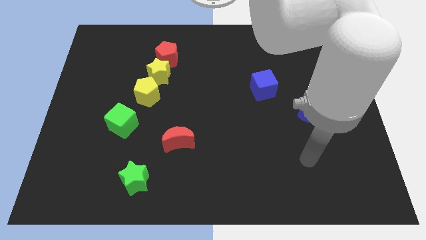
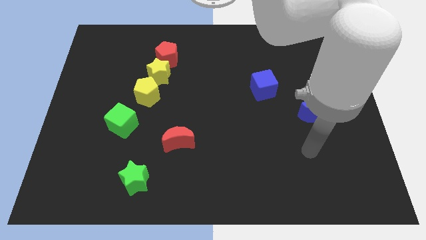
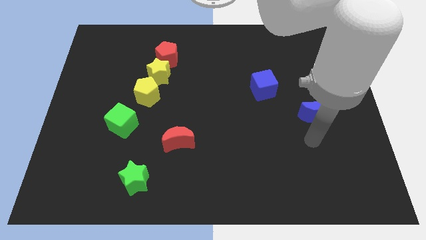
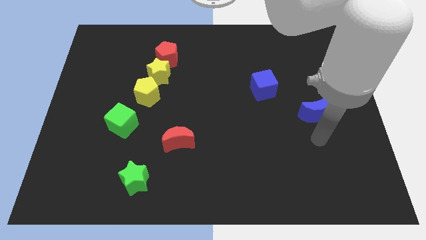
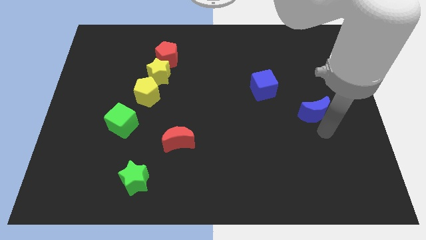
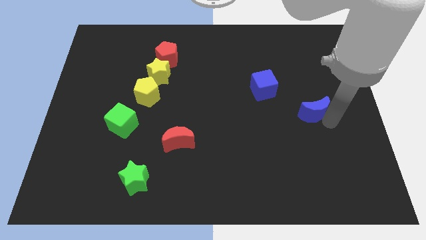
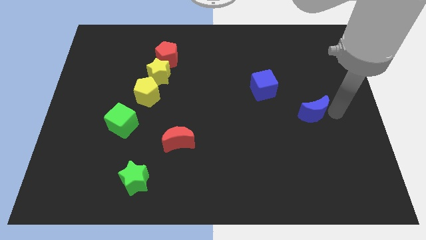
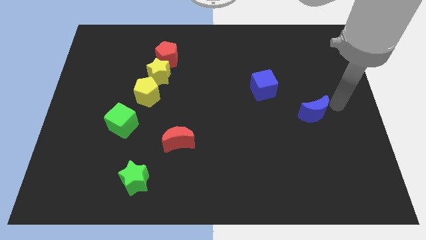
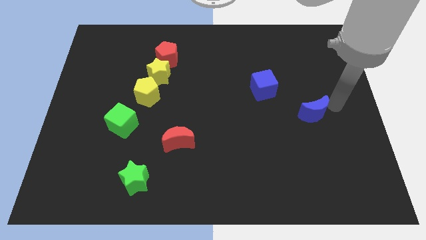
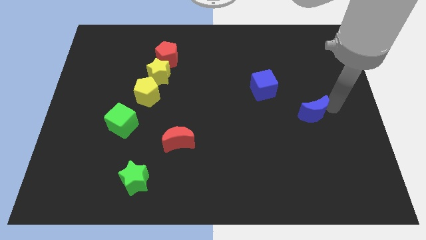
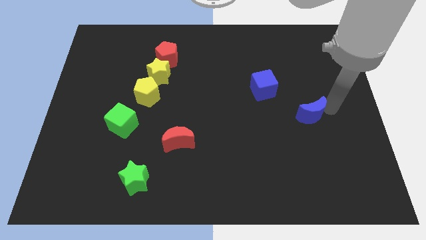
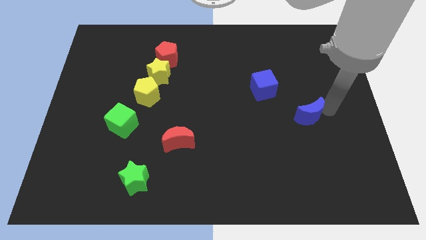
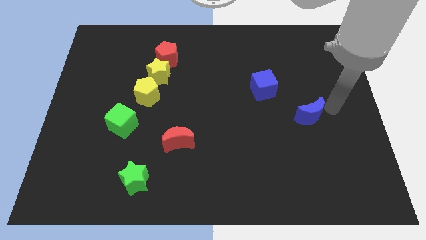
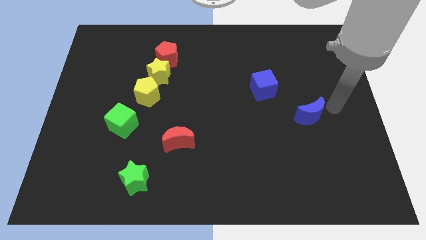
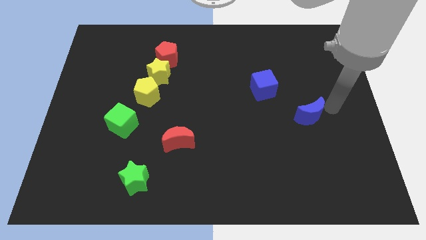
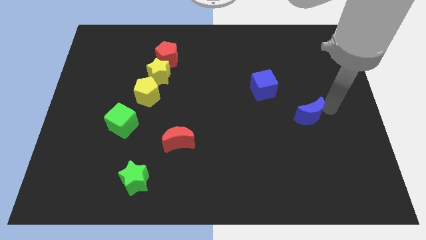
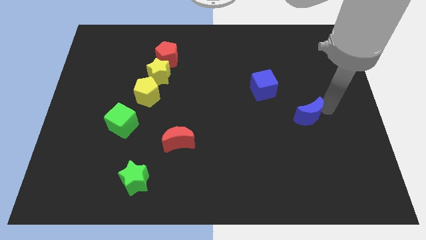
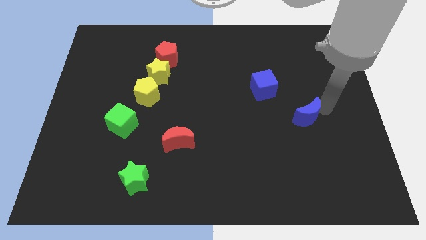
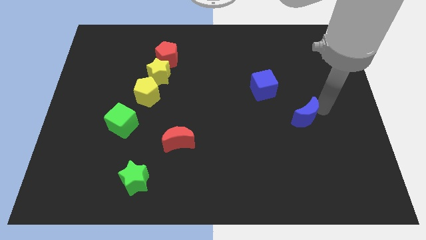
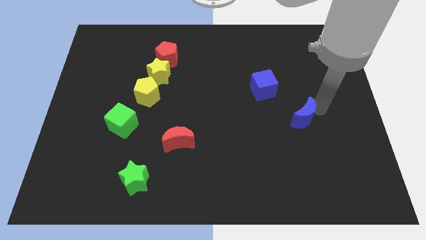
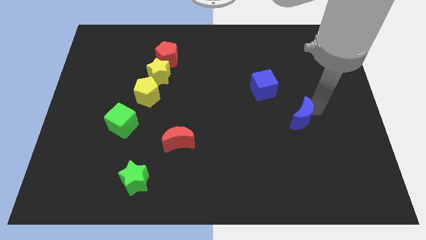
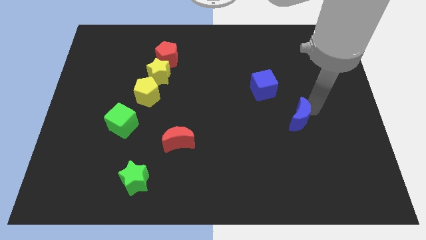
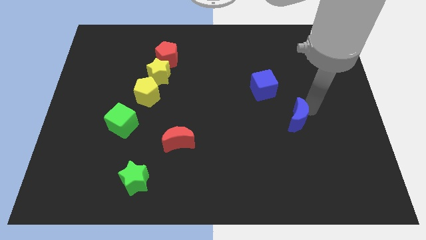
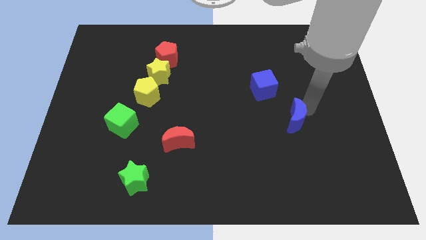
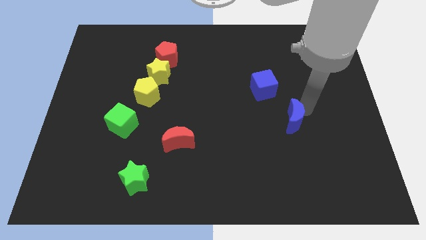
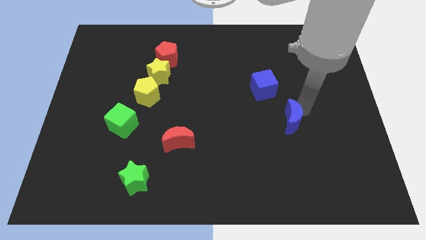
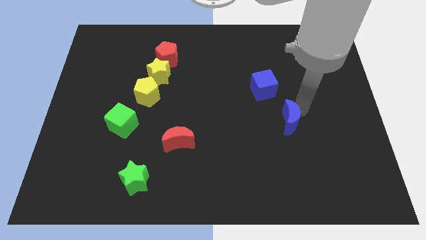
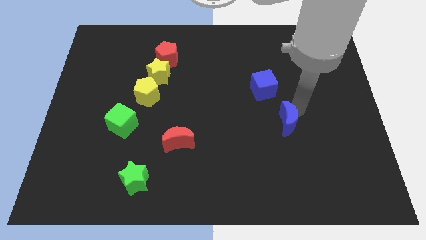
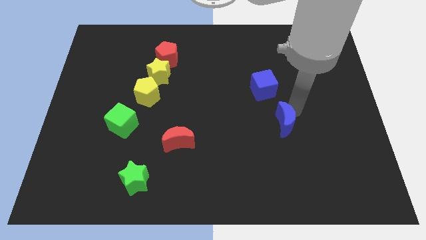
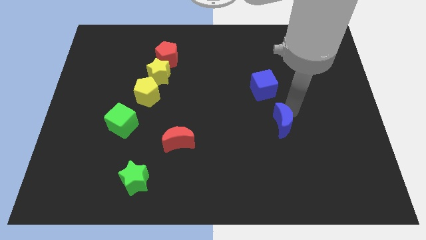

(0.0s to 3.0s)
move the blue moon down and to the left somewhat

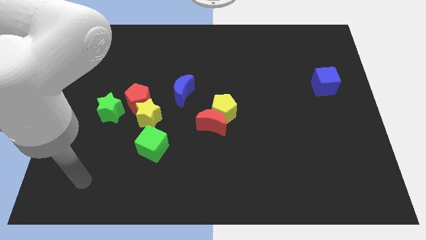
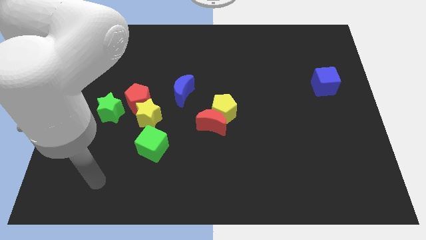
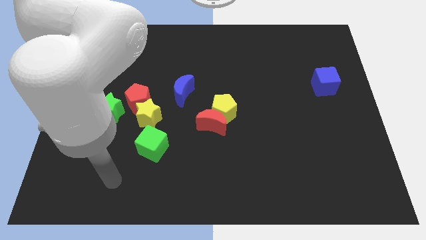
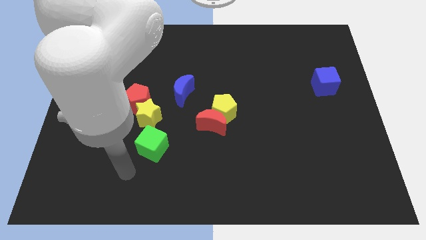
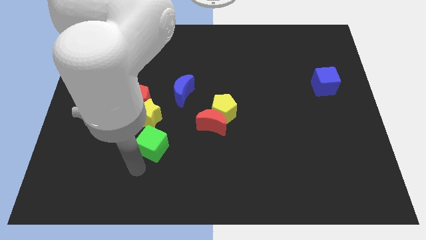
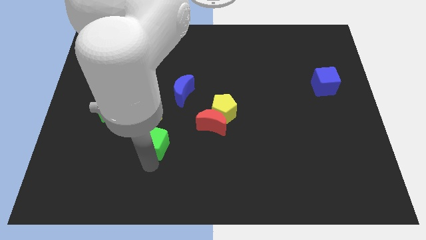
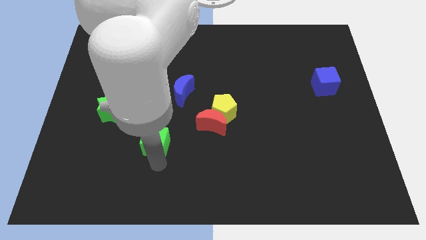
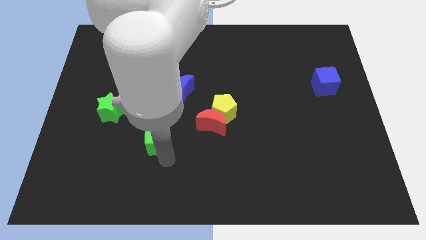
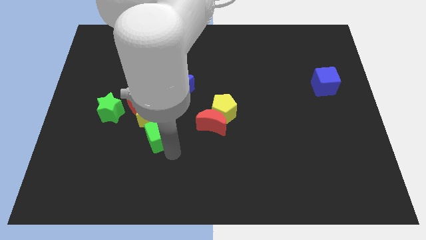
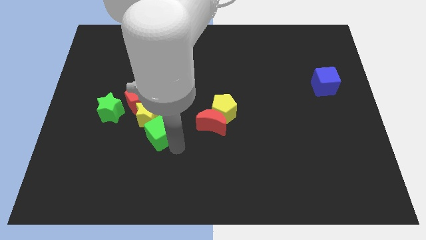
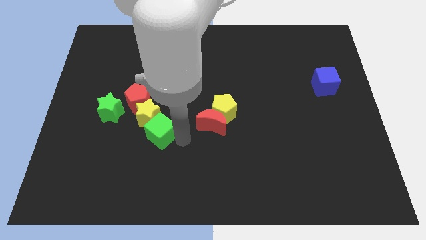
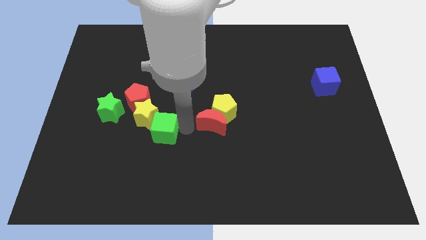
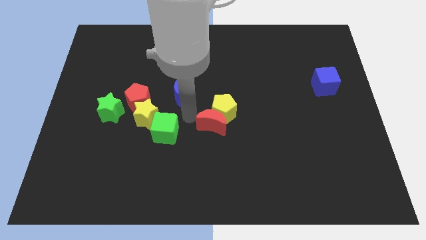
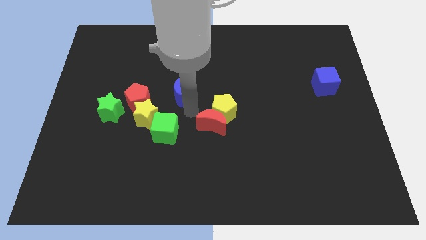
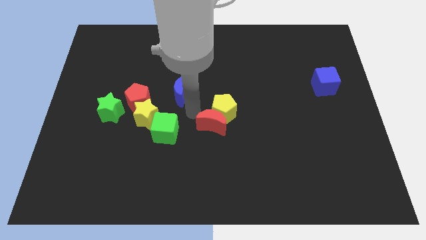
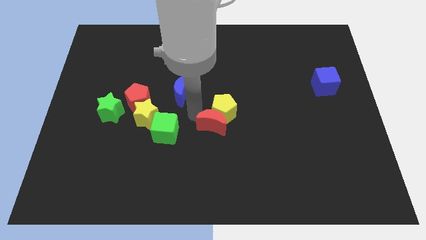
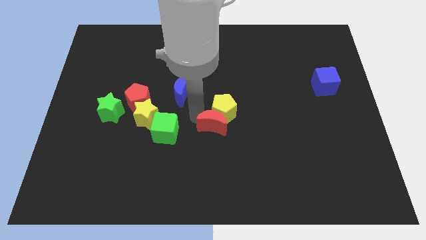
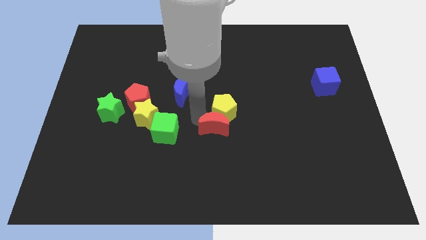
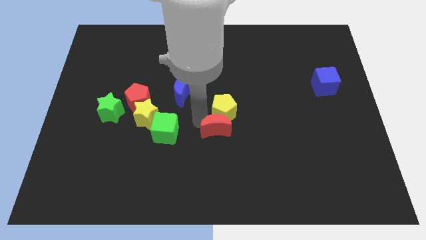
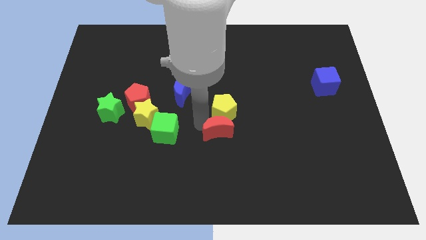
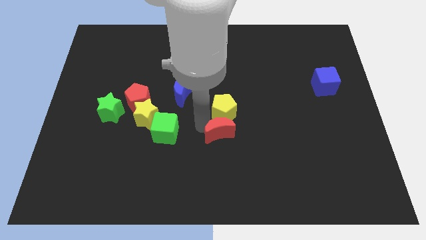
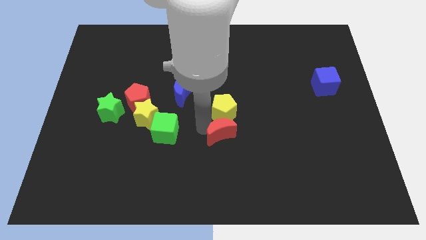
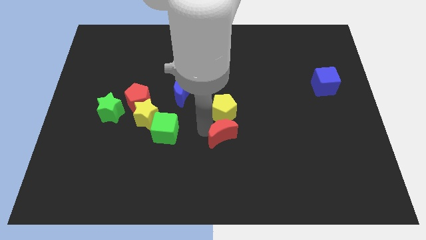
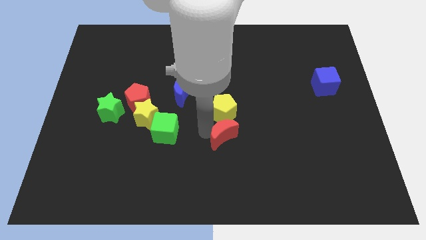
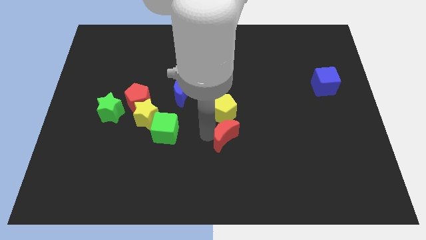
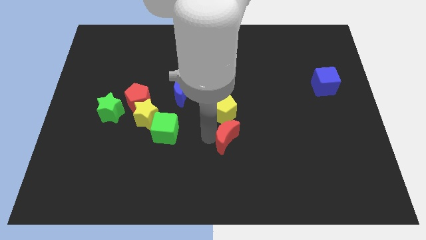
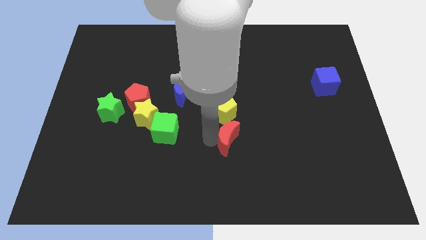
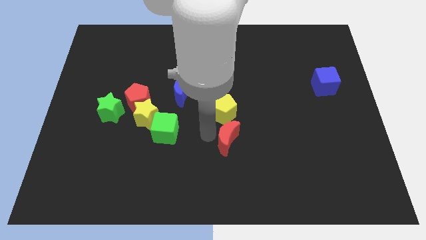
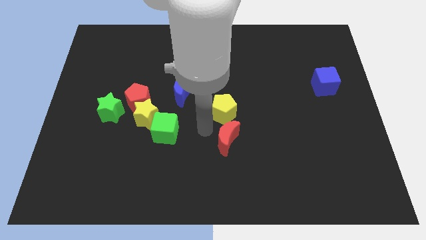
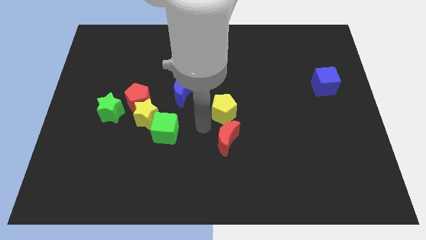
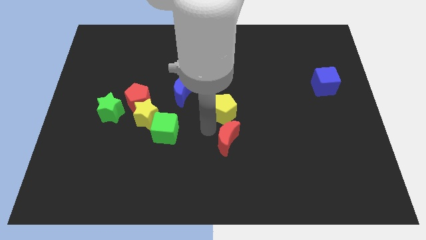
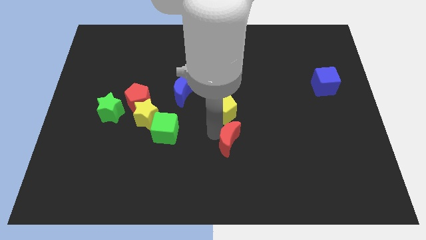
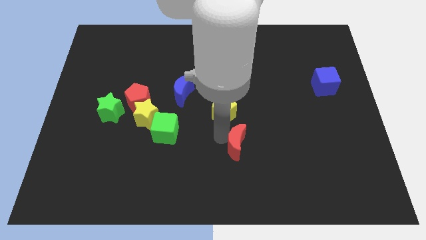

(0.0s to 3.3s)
slightly push the red moon diagonally downwards and to the right

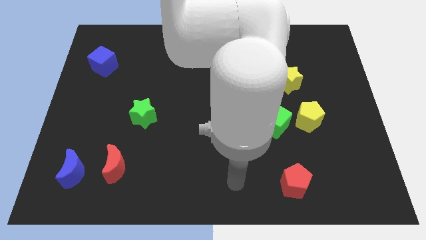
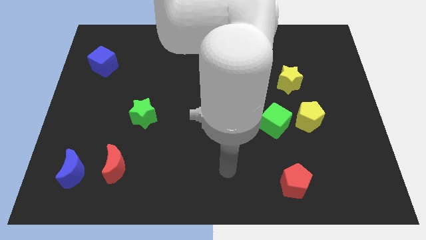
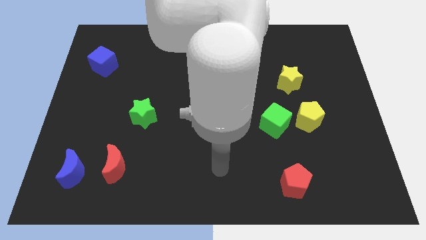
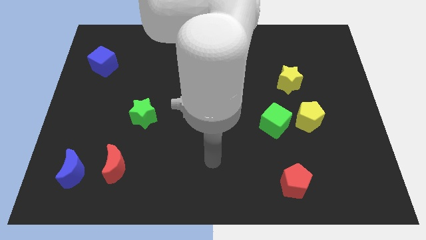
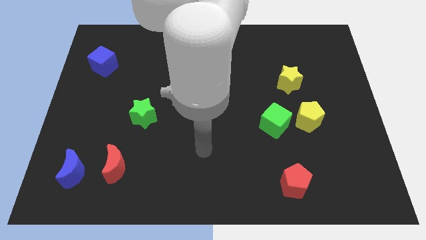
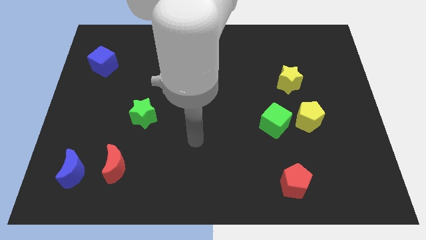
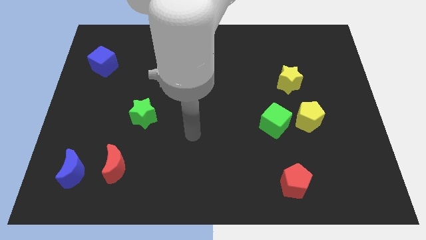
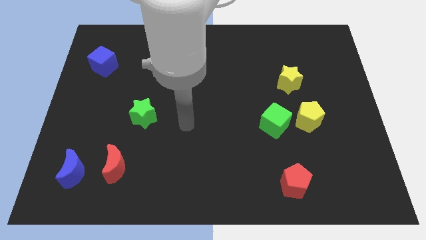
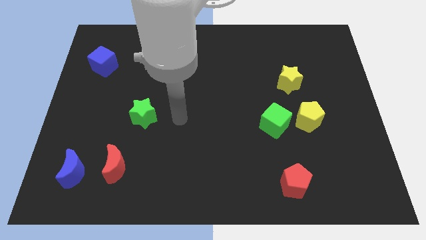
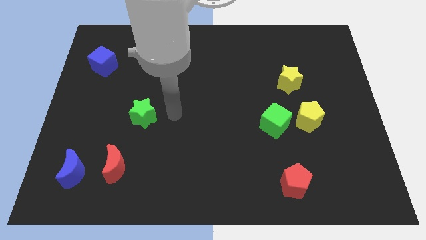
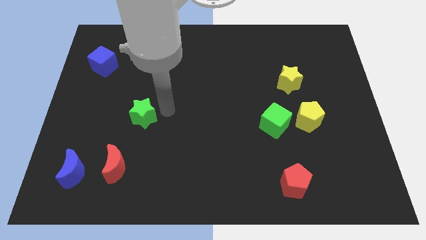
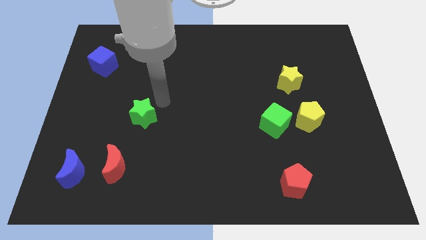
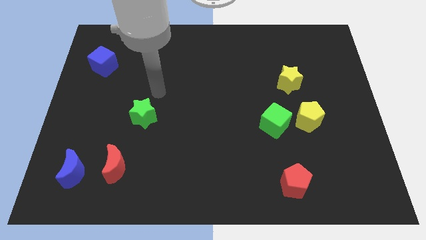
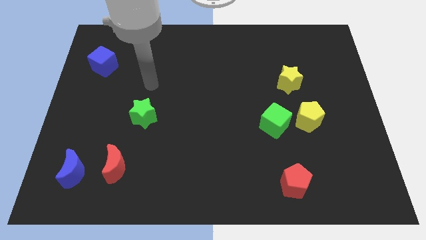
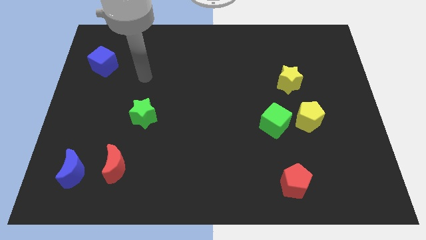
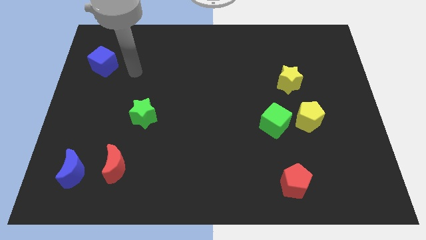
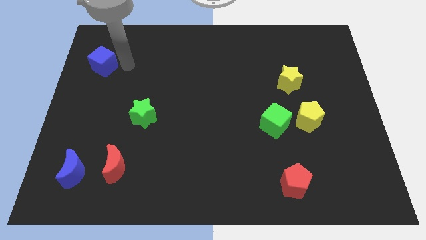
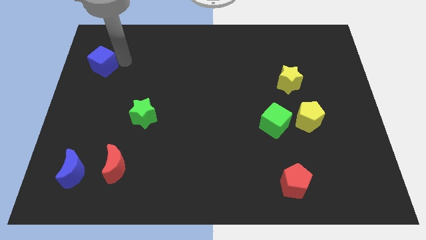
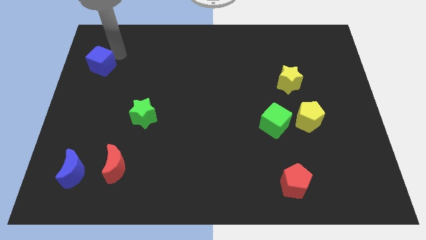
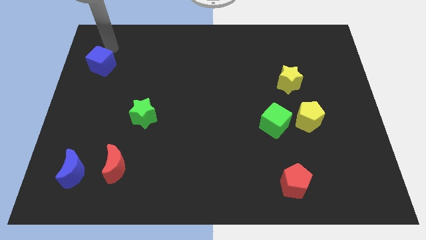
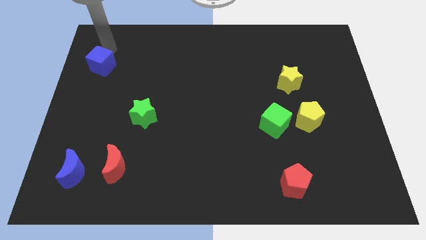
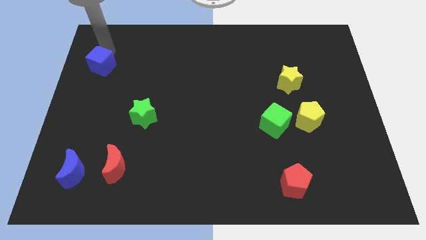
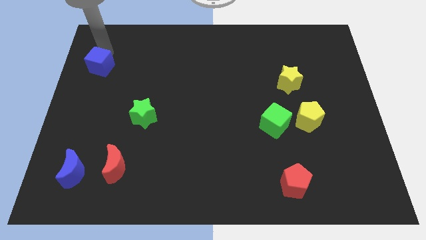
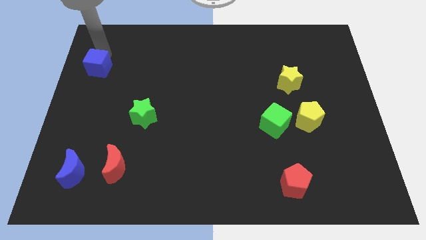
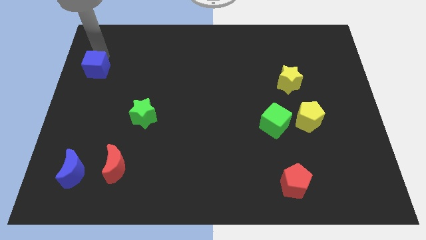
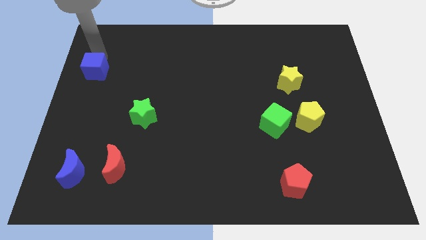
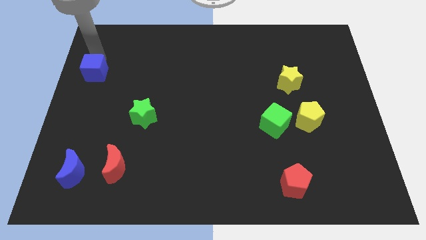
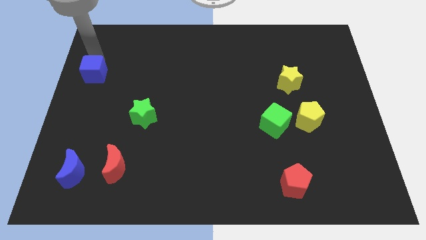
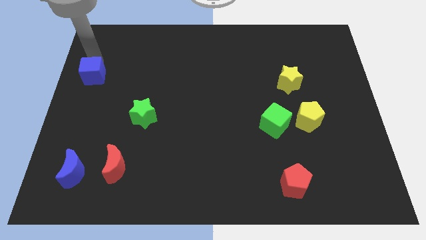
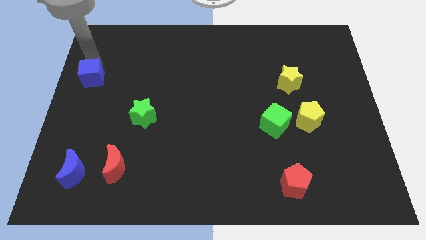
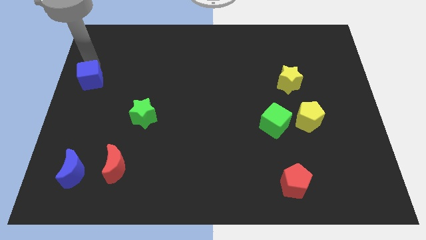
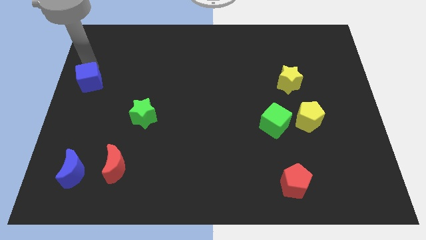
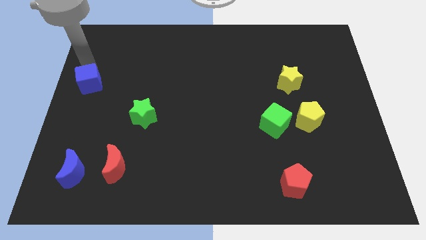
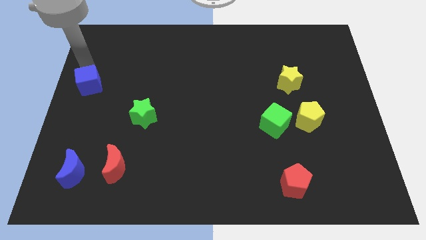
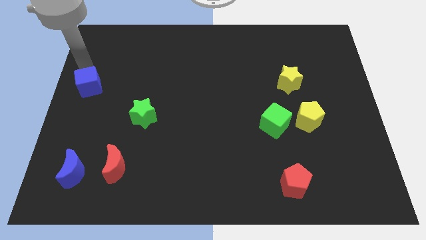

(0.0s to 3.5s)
move the blue cube downwards somewhat
